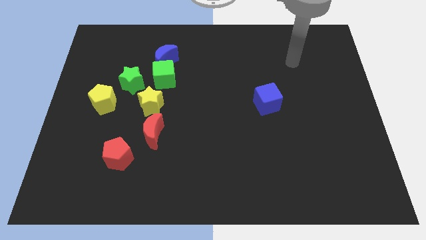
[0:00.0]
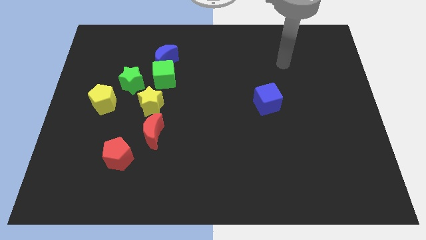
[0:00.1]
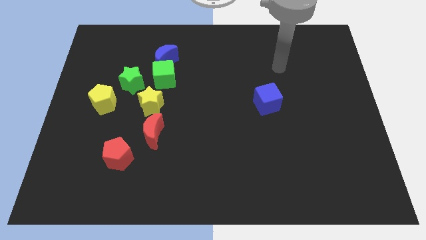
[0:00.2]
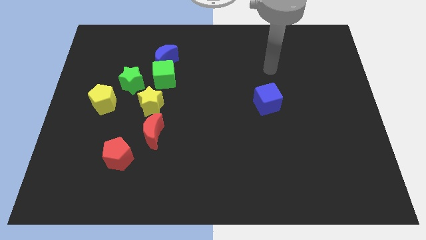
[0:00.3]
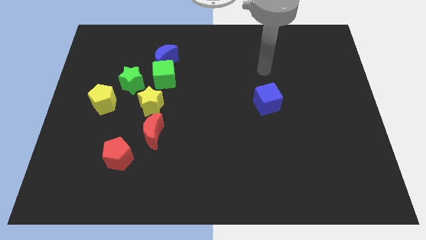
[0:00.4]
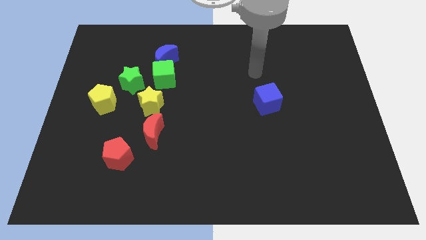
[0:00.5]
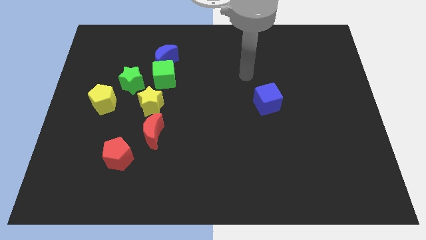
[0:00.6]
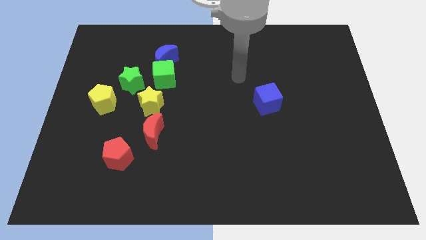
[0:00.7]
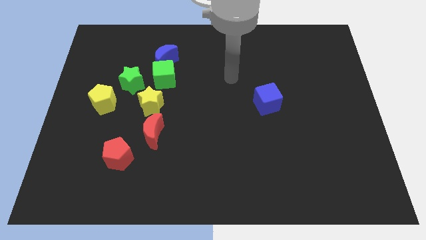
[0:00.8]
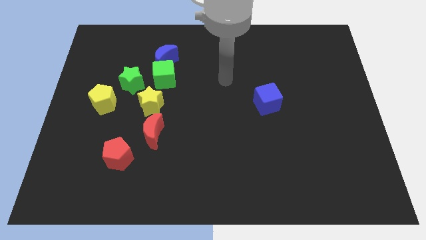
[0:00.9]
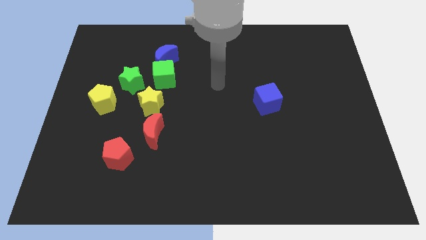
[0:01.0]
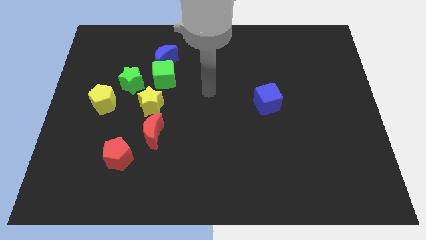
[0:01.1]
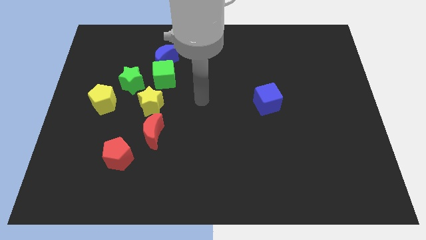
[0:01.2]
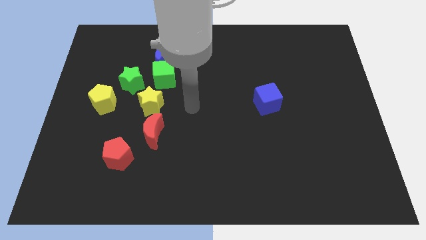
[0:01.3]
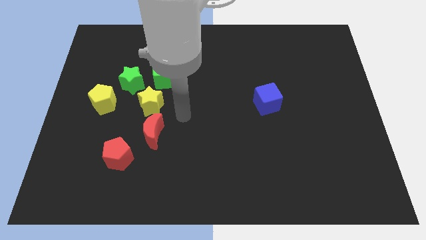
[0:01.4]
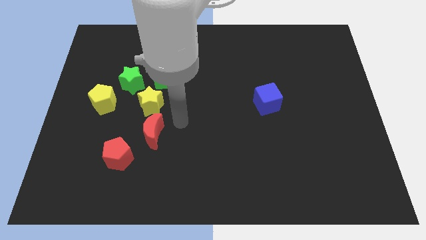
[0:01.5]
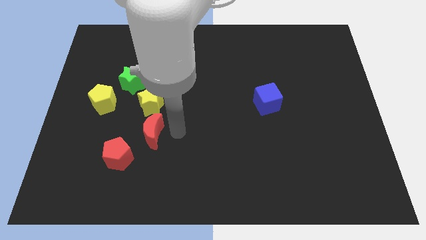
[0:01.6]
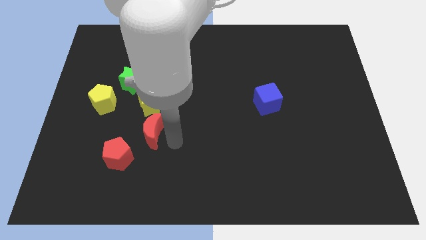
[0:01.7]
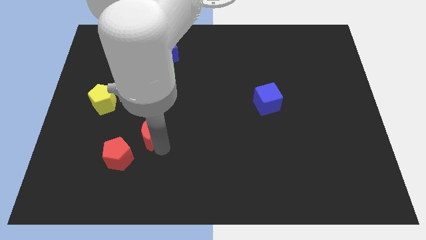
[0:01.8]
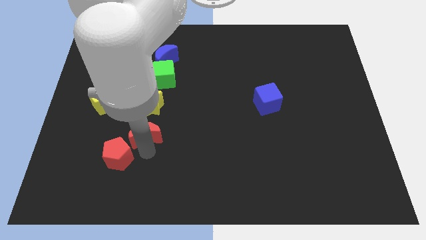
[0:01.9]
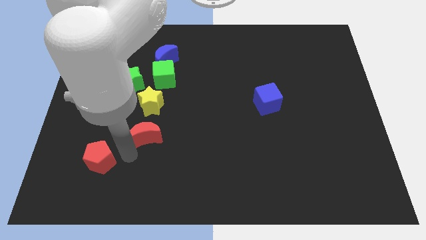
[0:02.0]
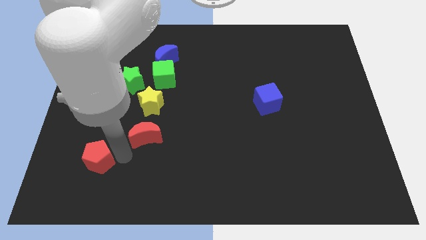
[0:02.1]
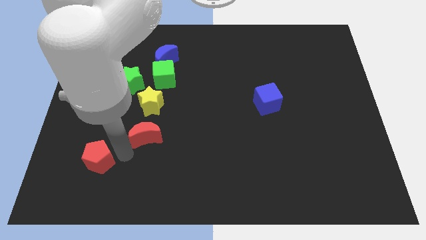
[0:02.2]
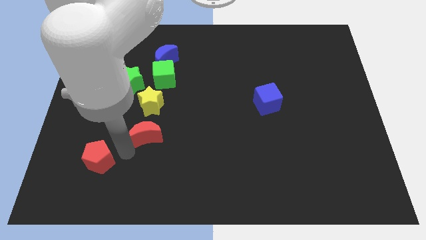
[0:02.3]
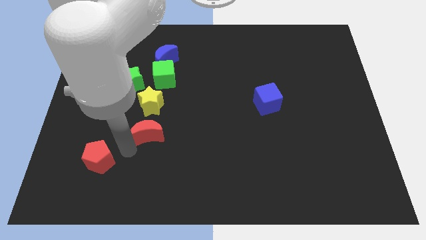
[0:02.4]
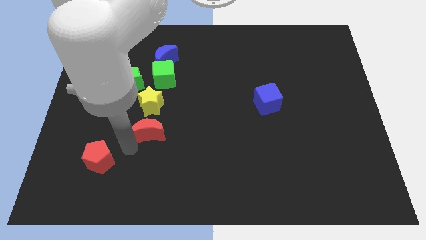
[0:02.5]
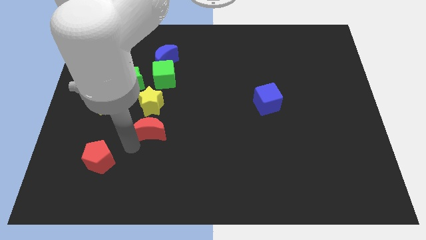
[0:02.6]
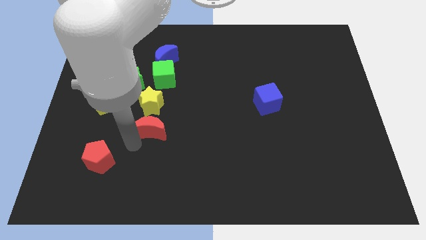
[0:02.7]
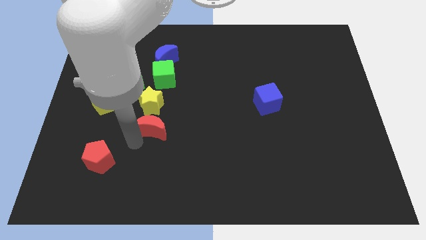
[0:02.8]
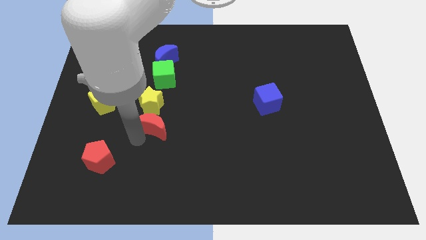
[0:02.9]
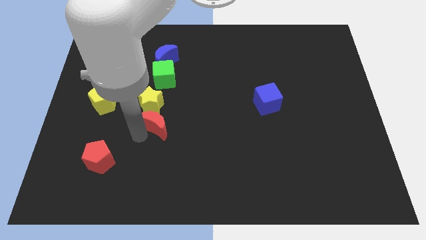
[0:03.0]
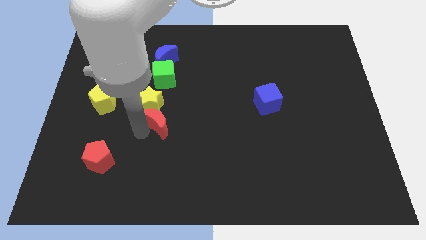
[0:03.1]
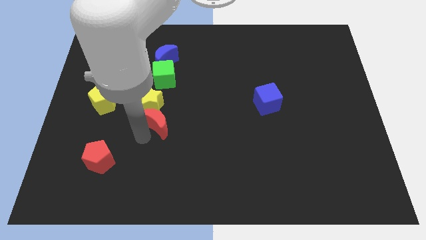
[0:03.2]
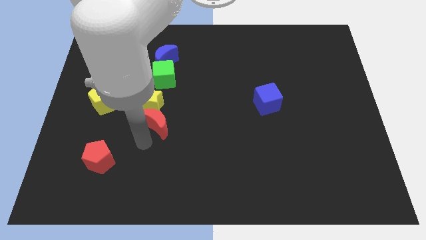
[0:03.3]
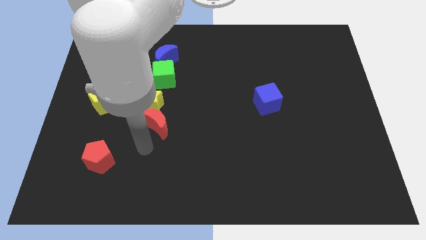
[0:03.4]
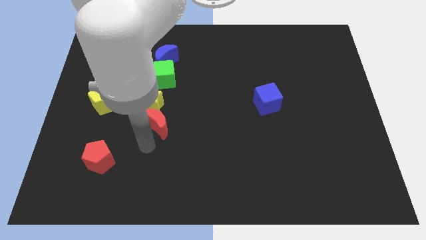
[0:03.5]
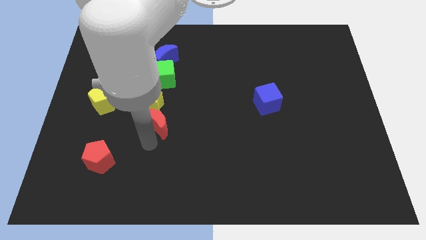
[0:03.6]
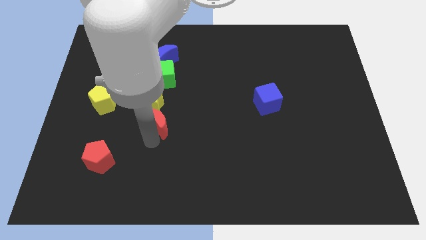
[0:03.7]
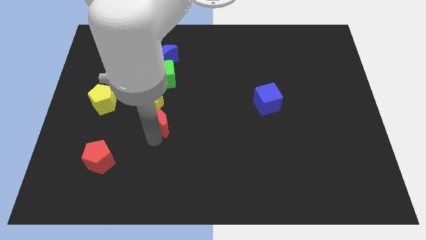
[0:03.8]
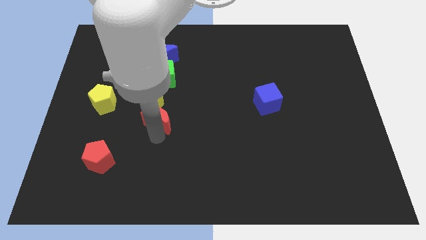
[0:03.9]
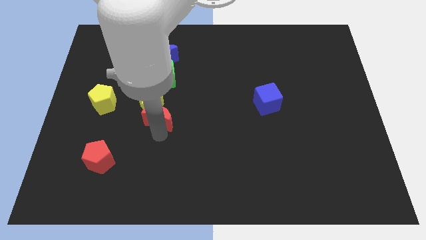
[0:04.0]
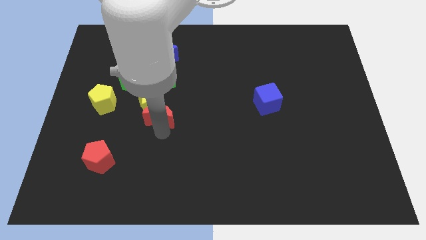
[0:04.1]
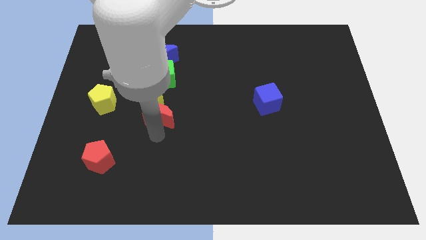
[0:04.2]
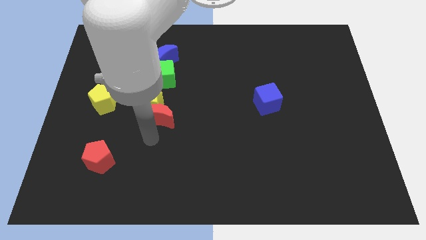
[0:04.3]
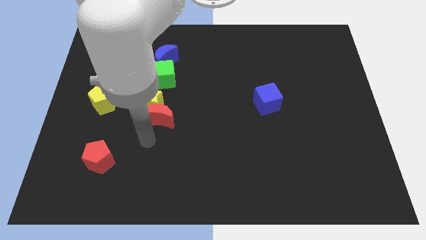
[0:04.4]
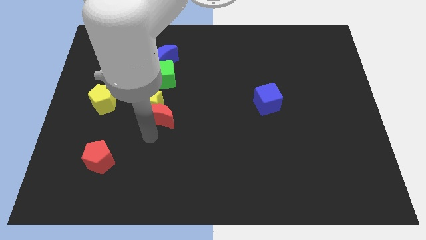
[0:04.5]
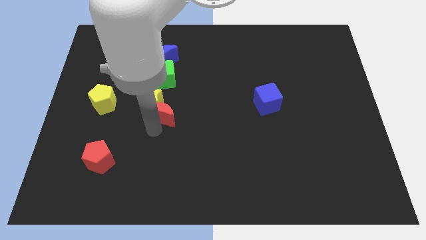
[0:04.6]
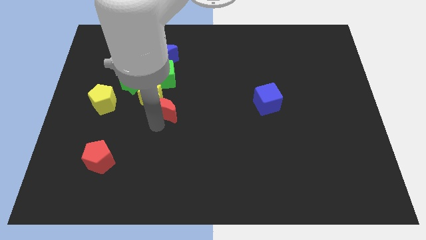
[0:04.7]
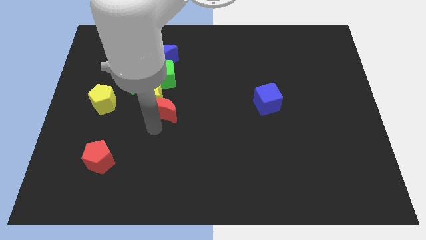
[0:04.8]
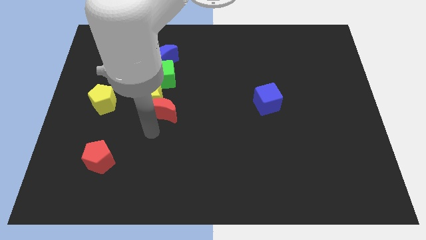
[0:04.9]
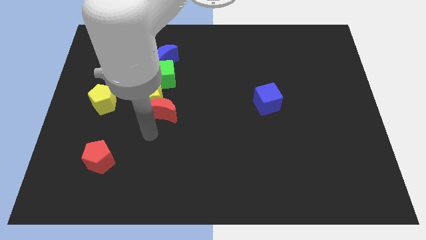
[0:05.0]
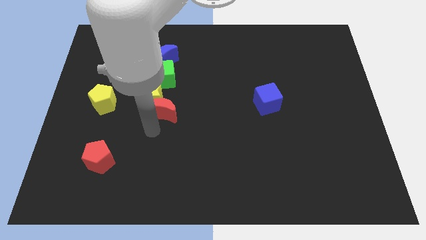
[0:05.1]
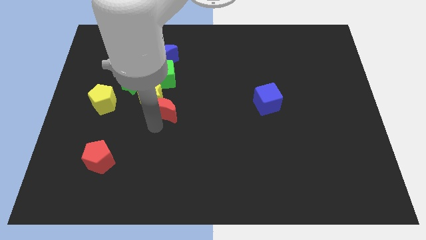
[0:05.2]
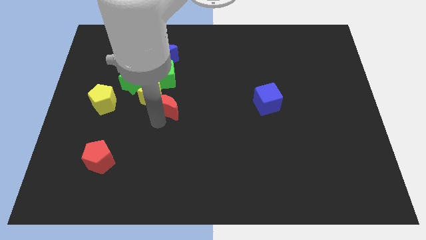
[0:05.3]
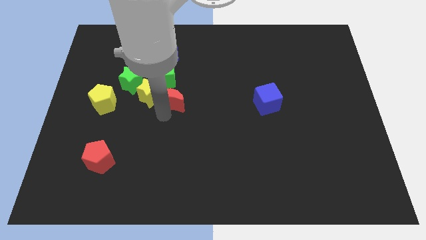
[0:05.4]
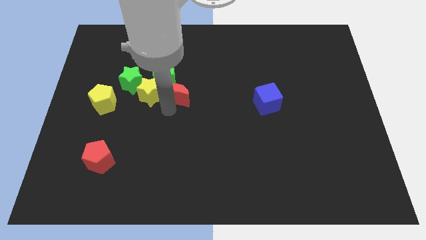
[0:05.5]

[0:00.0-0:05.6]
slide the red moon to the top right of the yellow star

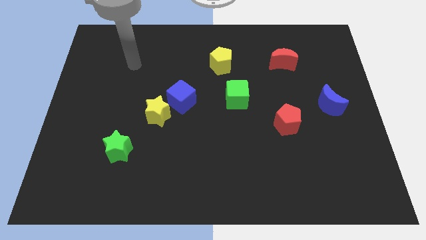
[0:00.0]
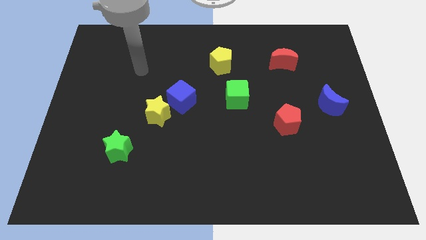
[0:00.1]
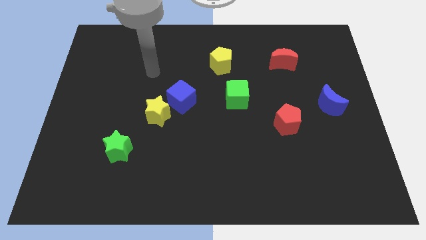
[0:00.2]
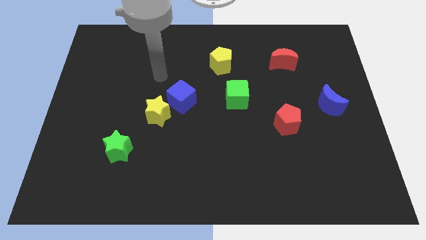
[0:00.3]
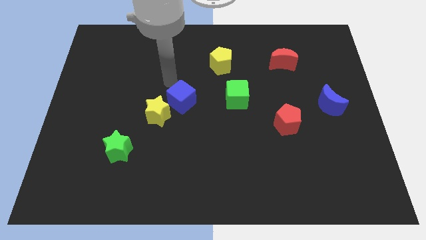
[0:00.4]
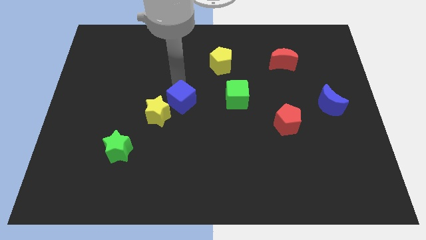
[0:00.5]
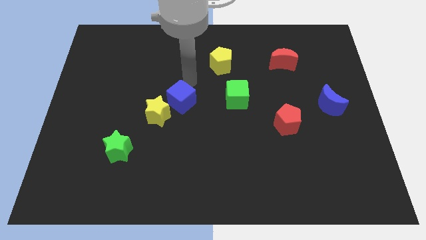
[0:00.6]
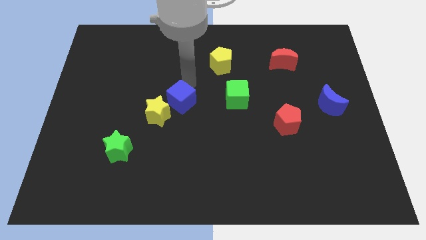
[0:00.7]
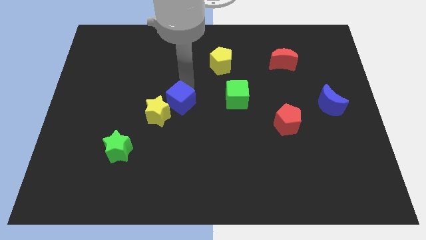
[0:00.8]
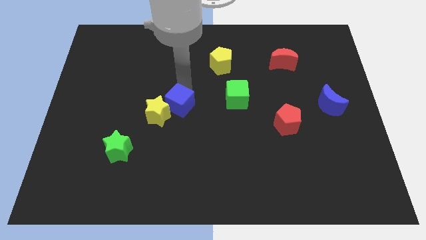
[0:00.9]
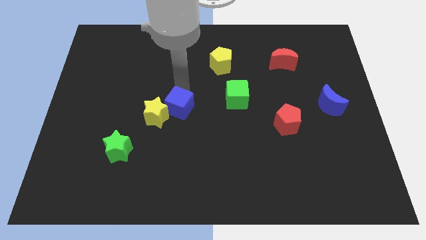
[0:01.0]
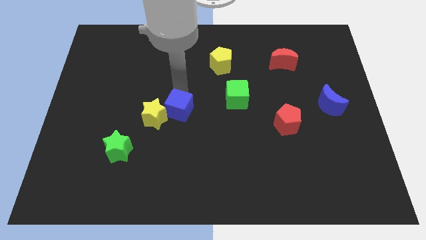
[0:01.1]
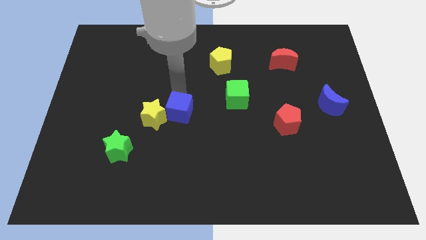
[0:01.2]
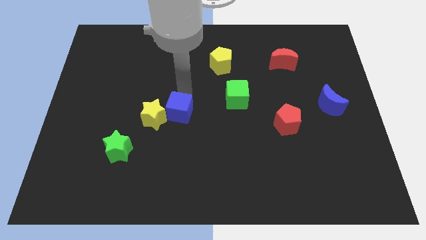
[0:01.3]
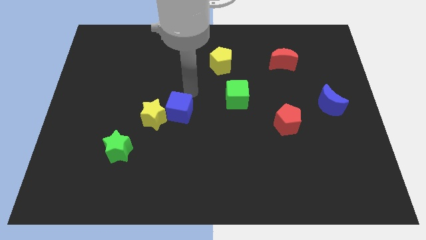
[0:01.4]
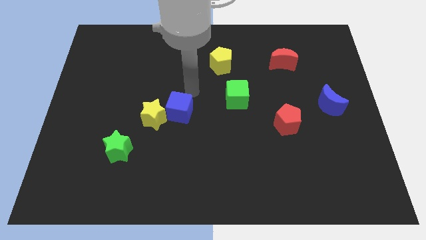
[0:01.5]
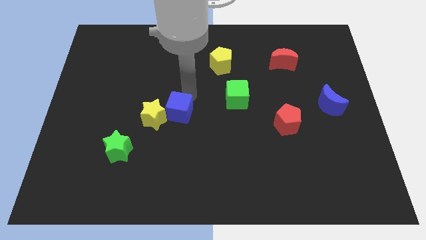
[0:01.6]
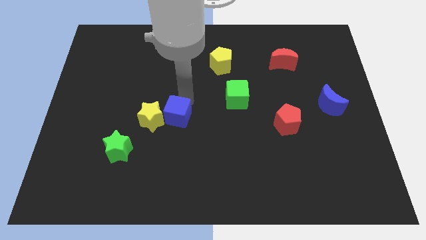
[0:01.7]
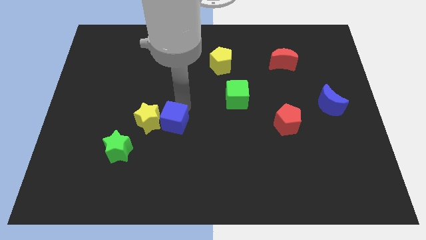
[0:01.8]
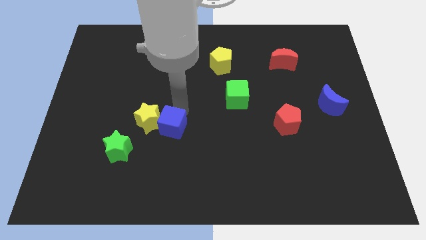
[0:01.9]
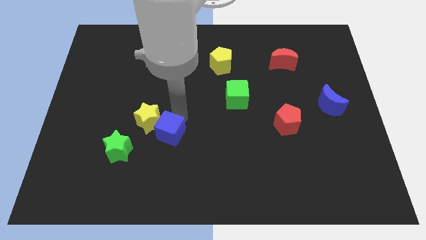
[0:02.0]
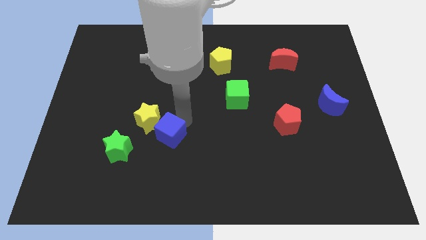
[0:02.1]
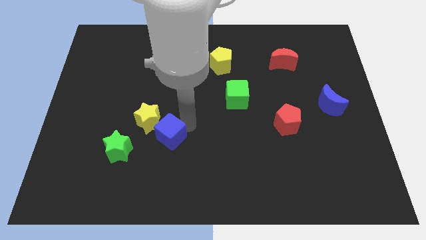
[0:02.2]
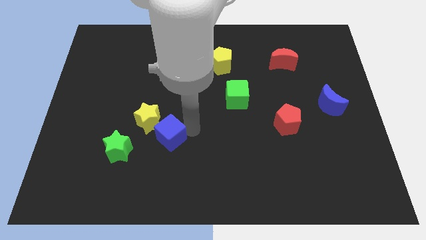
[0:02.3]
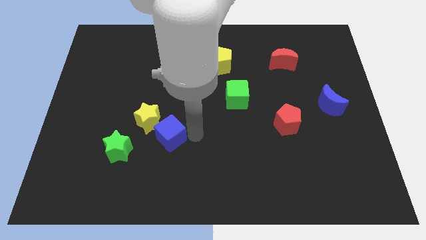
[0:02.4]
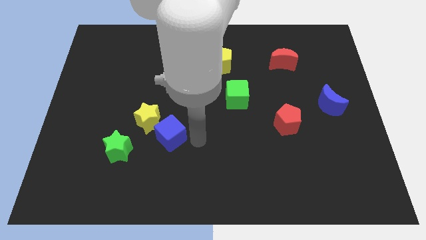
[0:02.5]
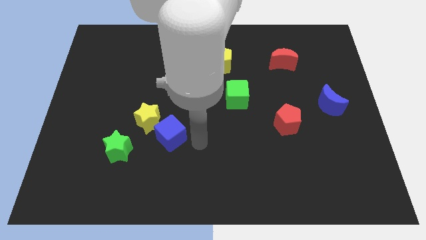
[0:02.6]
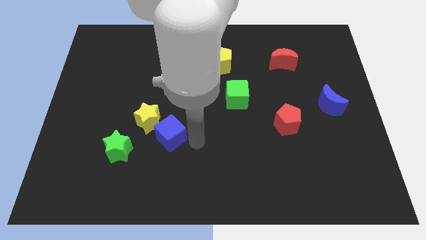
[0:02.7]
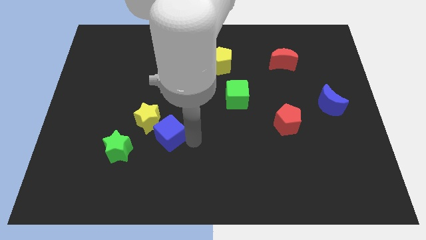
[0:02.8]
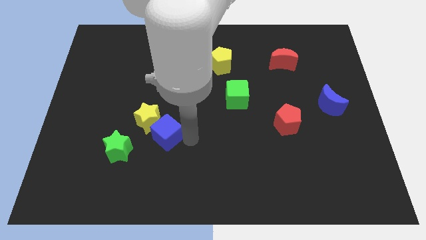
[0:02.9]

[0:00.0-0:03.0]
move the blue cube to the top right of the green star
